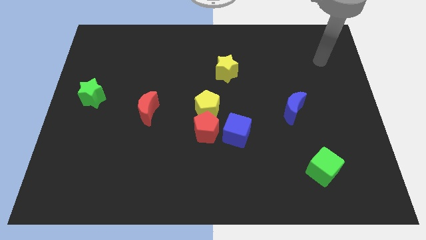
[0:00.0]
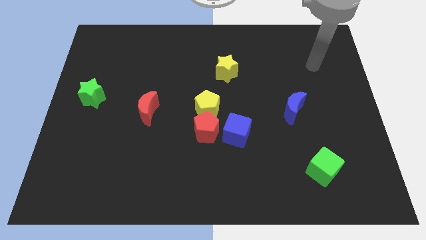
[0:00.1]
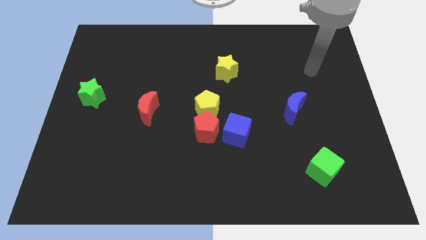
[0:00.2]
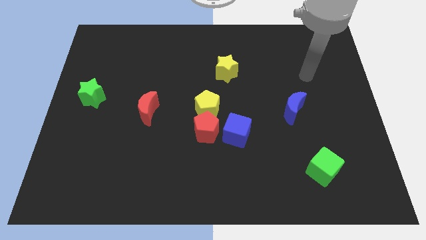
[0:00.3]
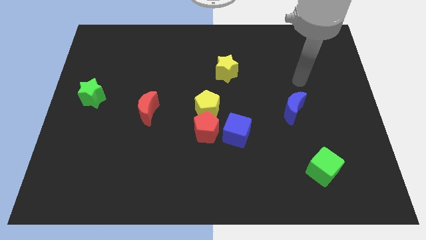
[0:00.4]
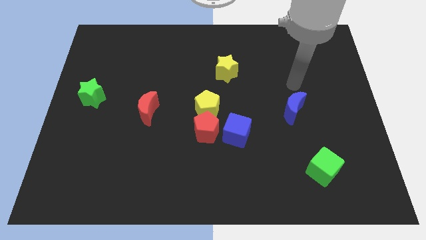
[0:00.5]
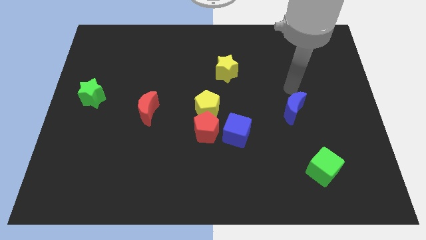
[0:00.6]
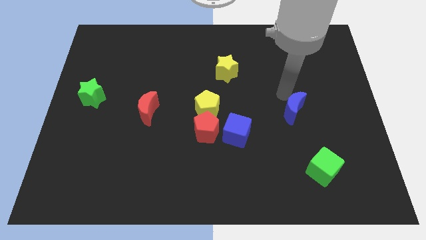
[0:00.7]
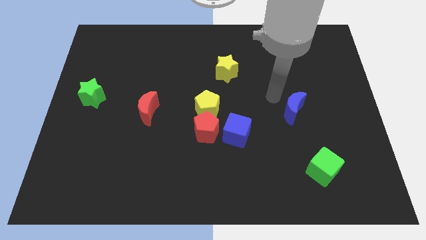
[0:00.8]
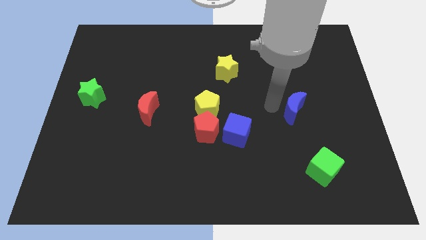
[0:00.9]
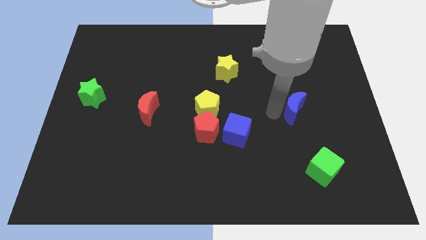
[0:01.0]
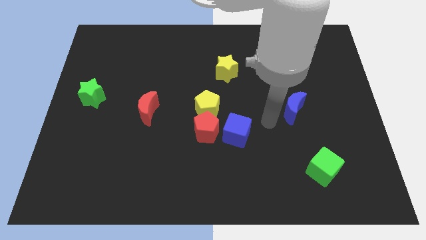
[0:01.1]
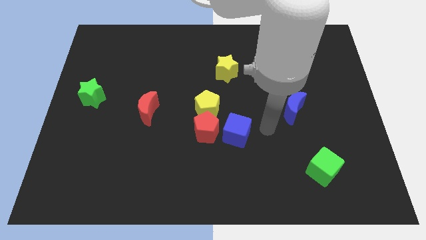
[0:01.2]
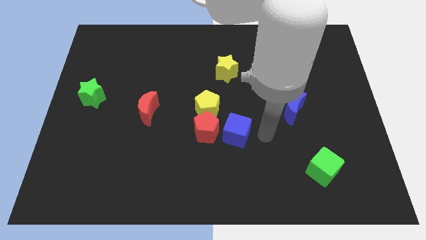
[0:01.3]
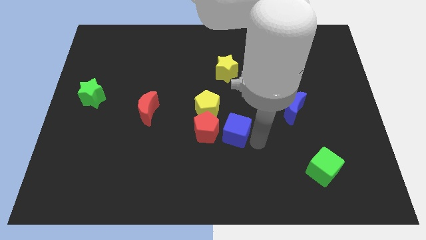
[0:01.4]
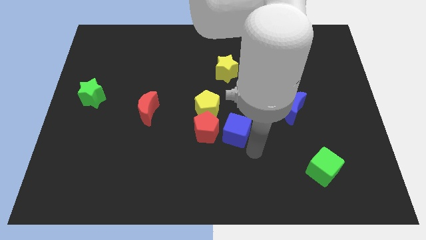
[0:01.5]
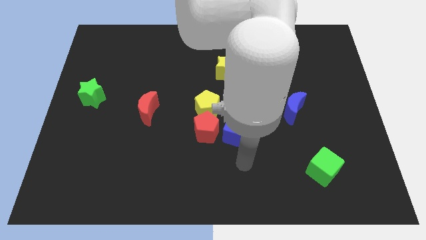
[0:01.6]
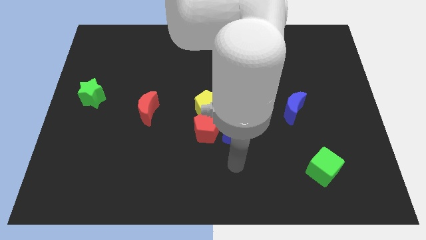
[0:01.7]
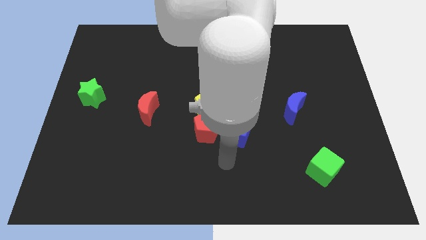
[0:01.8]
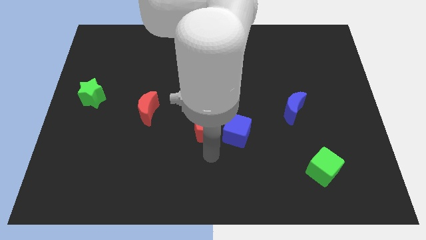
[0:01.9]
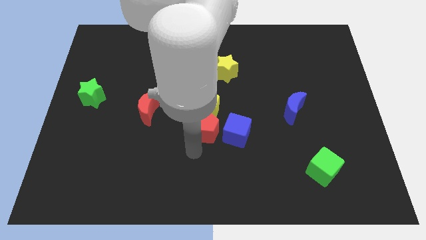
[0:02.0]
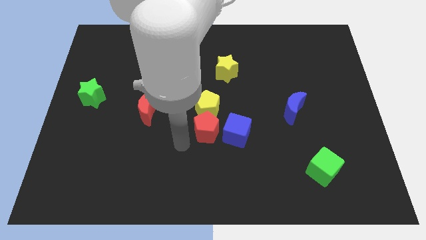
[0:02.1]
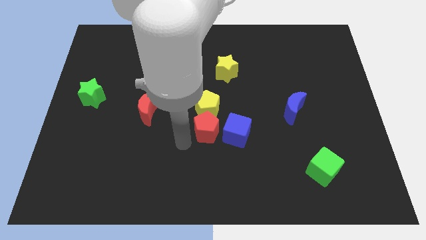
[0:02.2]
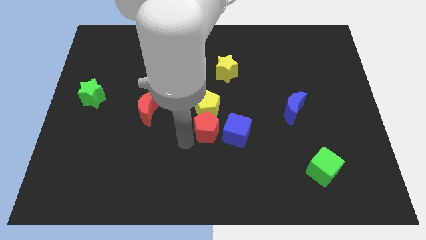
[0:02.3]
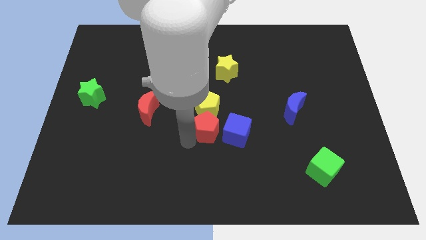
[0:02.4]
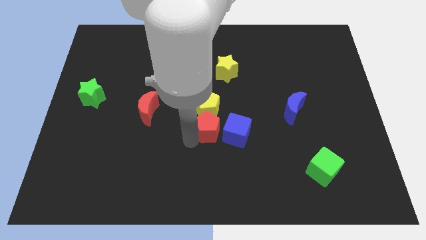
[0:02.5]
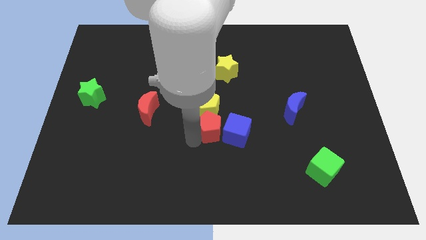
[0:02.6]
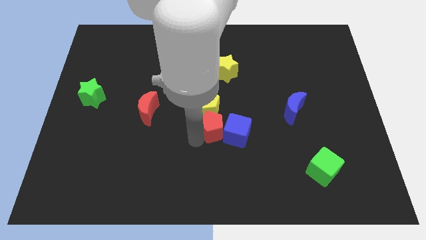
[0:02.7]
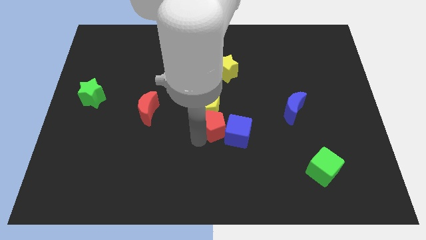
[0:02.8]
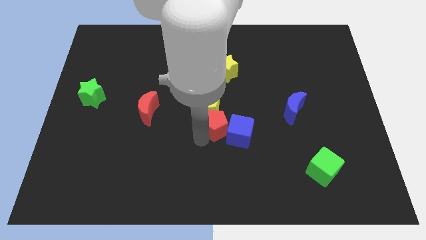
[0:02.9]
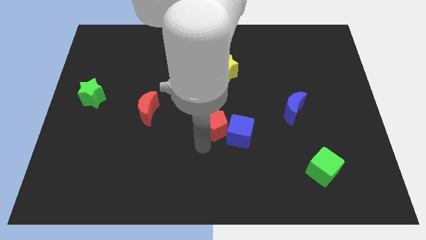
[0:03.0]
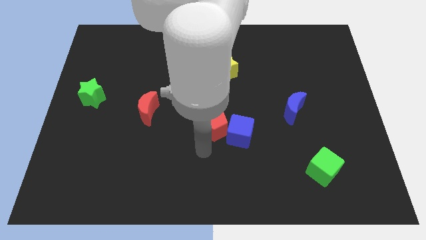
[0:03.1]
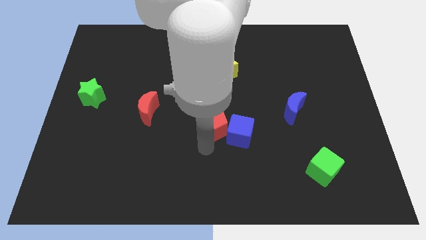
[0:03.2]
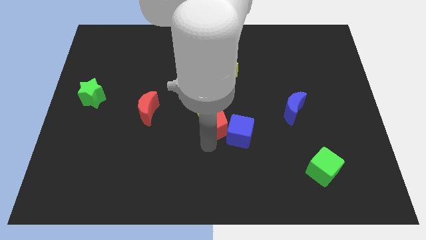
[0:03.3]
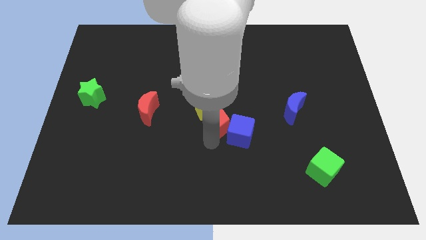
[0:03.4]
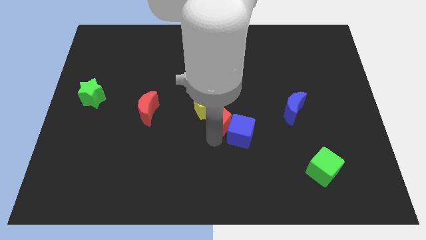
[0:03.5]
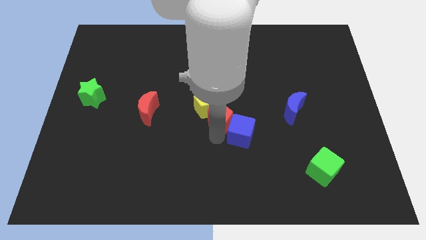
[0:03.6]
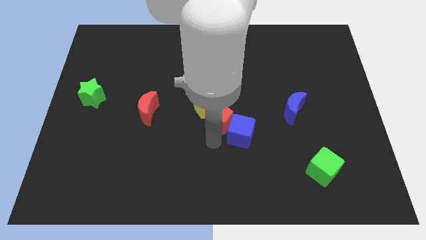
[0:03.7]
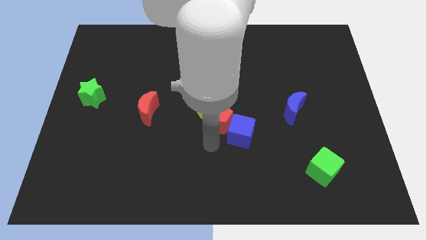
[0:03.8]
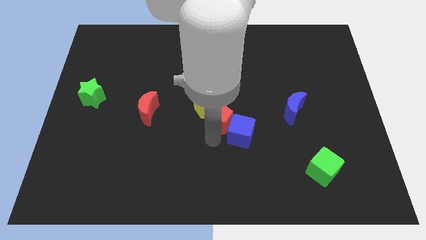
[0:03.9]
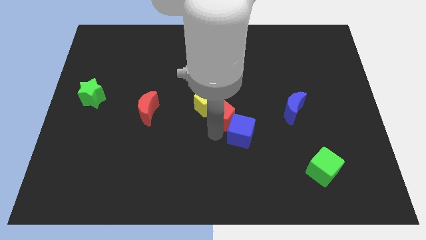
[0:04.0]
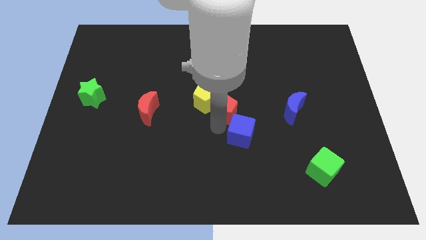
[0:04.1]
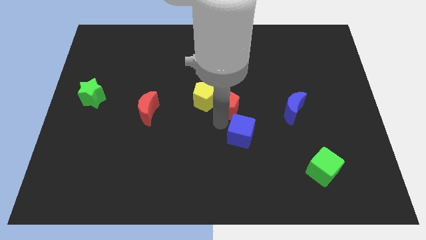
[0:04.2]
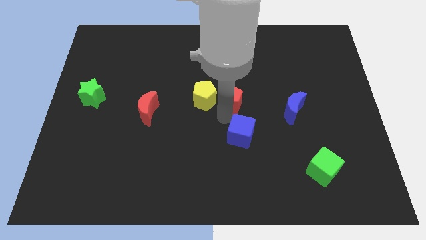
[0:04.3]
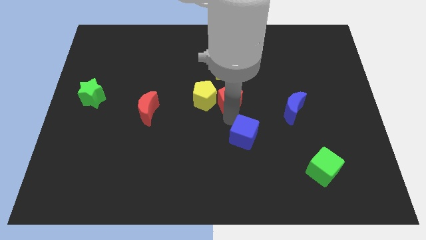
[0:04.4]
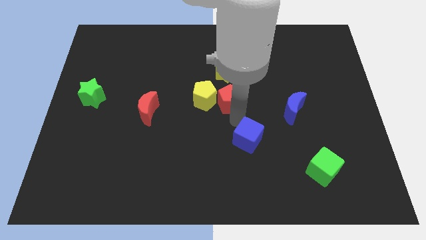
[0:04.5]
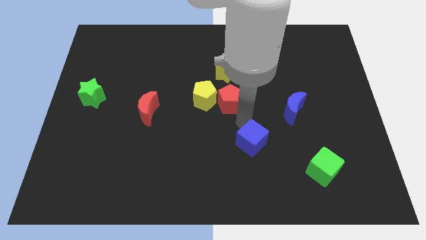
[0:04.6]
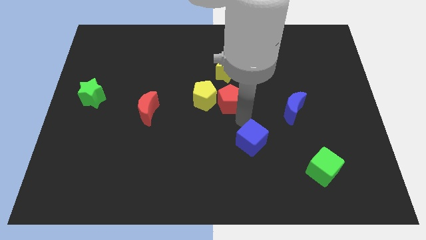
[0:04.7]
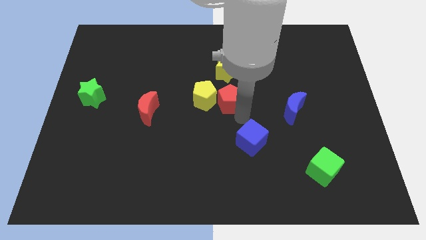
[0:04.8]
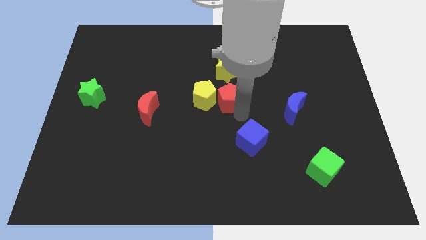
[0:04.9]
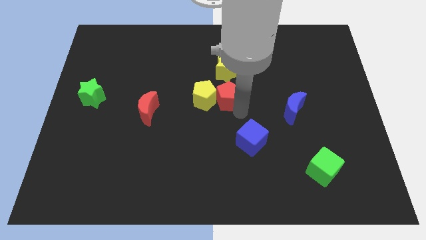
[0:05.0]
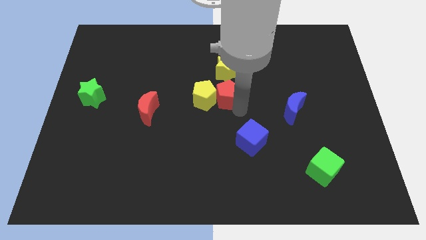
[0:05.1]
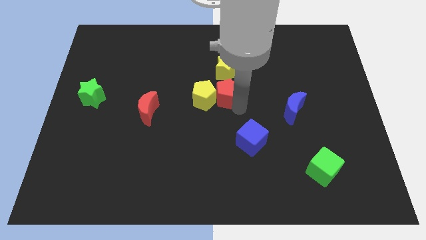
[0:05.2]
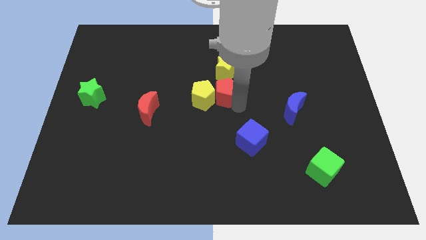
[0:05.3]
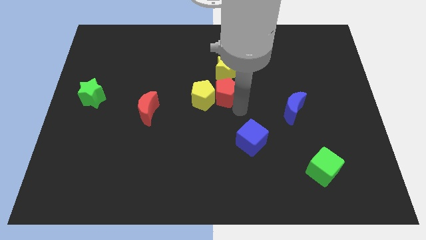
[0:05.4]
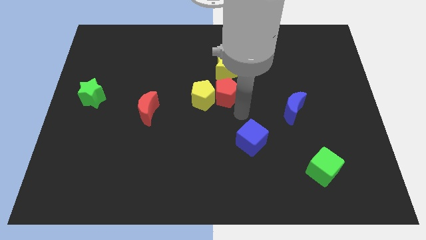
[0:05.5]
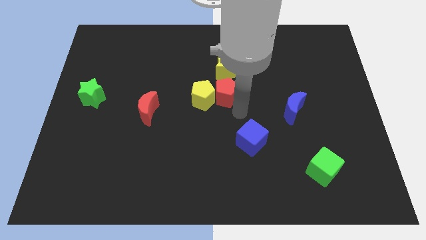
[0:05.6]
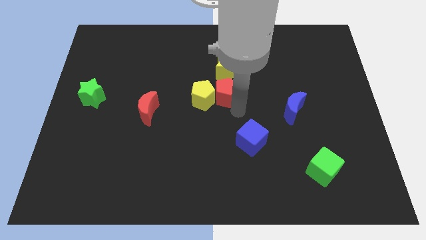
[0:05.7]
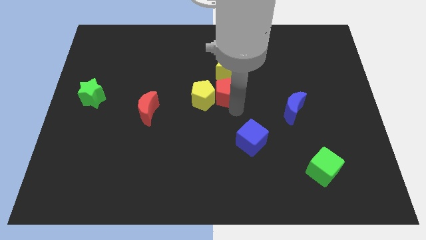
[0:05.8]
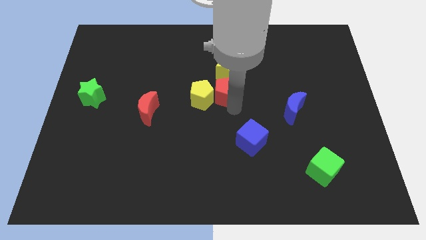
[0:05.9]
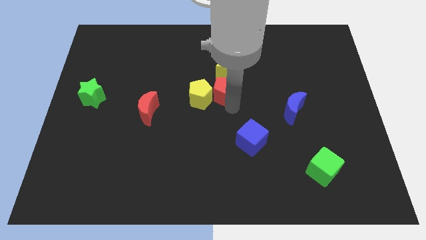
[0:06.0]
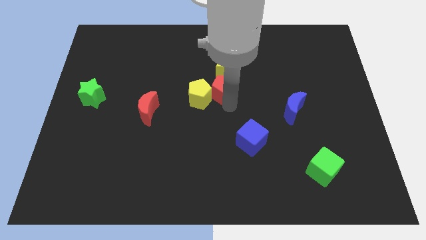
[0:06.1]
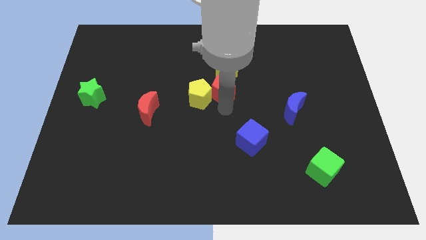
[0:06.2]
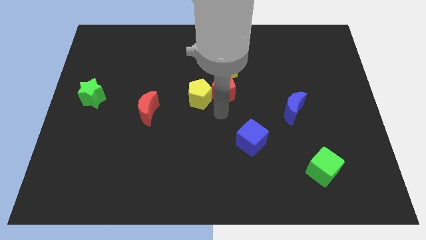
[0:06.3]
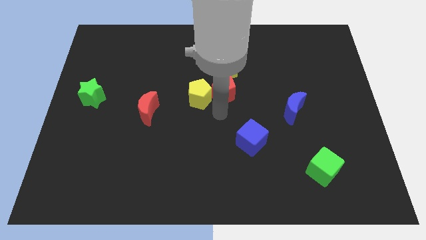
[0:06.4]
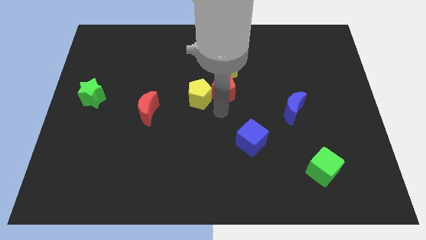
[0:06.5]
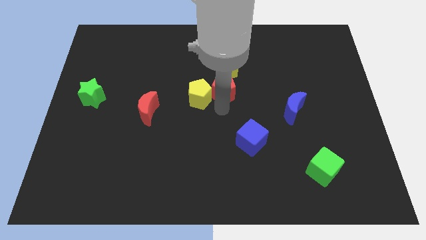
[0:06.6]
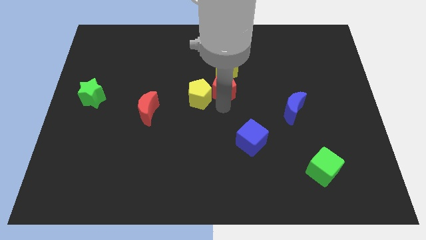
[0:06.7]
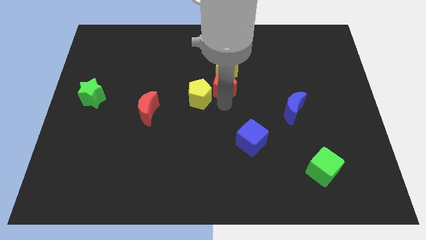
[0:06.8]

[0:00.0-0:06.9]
move the red pentagon to the yellow star
